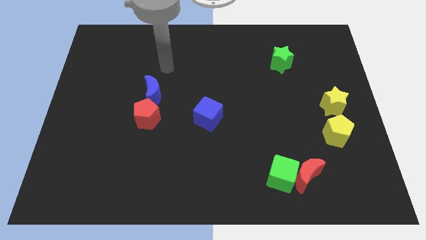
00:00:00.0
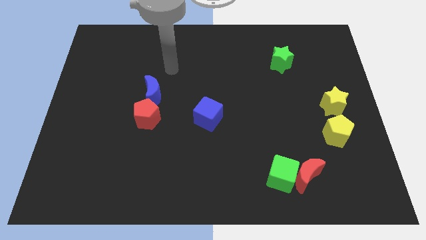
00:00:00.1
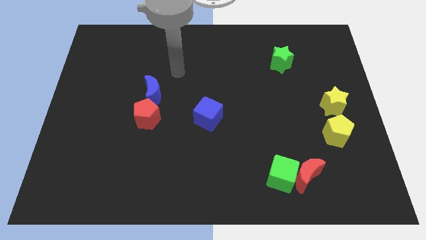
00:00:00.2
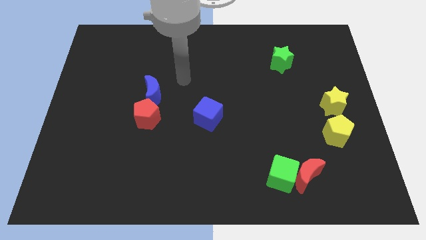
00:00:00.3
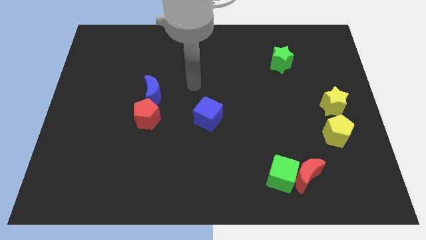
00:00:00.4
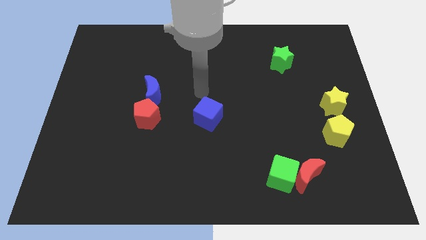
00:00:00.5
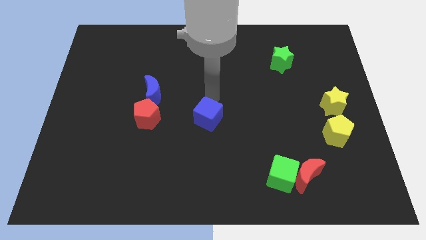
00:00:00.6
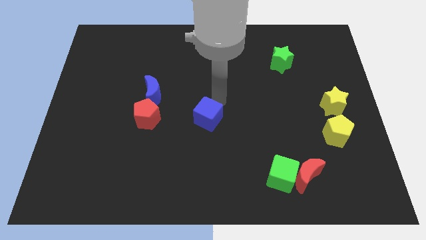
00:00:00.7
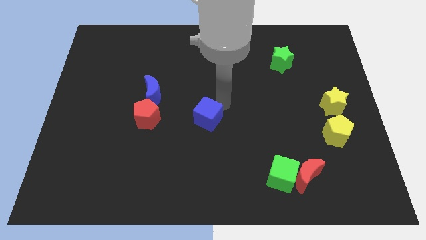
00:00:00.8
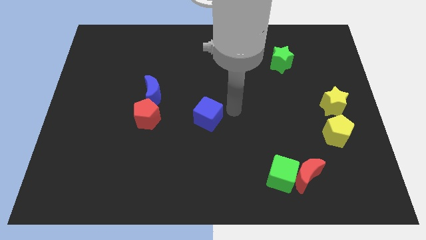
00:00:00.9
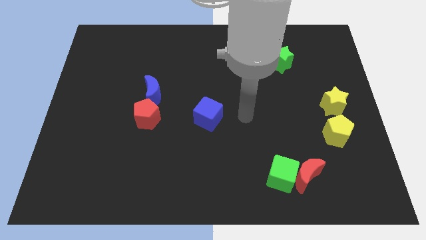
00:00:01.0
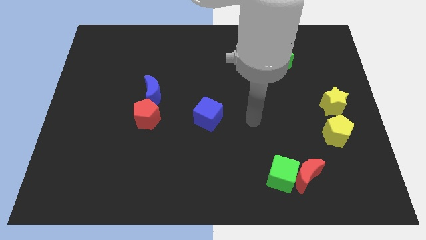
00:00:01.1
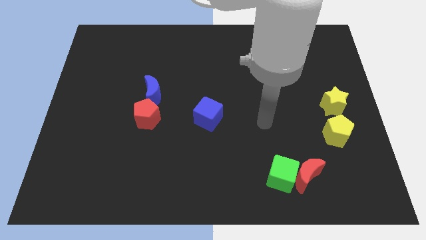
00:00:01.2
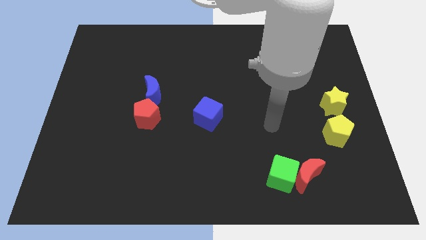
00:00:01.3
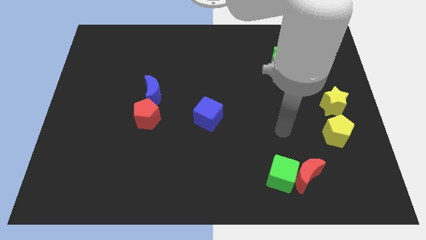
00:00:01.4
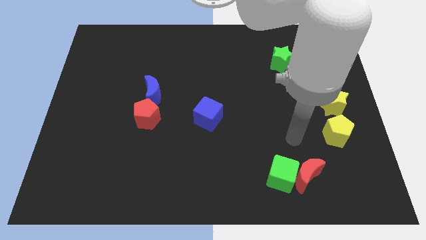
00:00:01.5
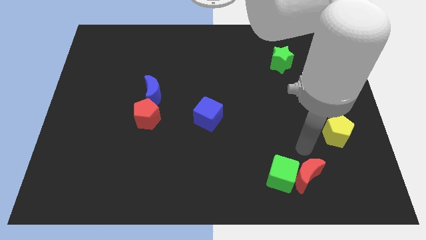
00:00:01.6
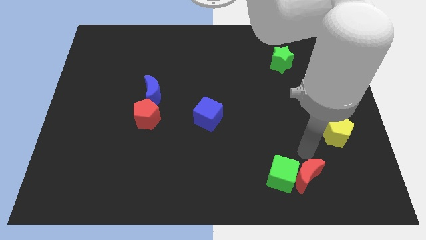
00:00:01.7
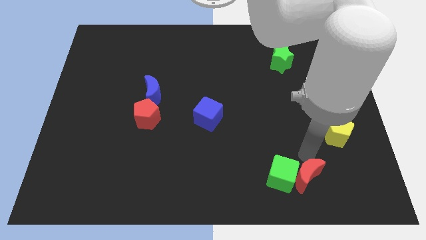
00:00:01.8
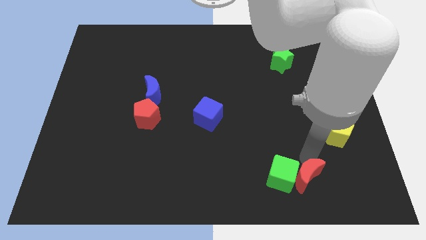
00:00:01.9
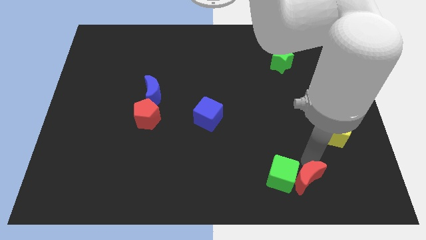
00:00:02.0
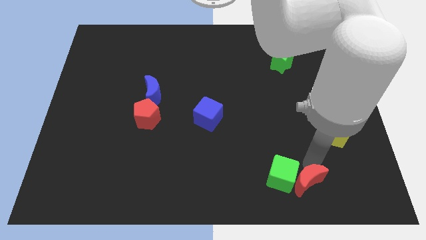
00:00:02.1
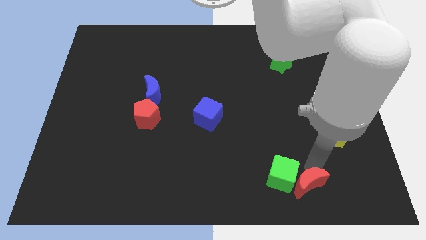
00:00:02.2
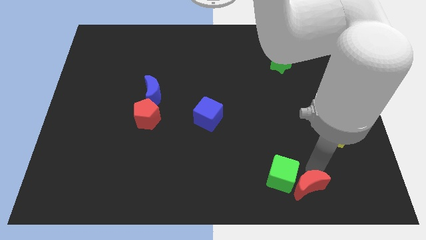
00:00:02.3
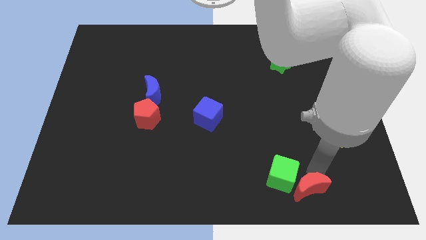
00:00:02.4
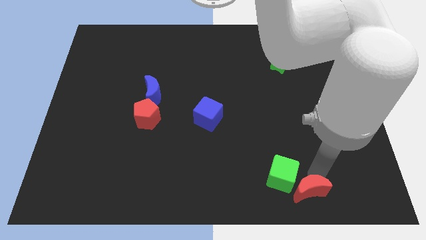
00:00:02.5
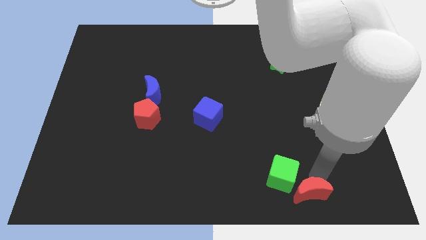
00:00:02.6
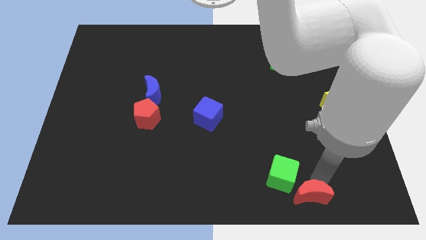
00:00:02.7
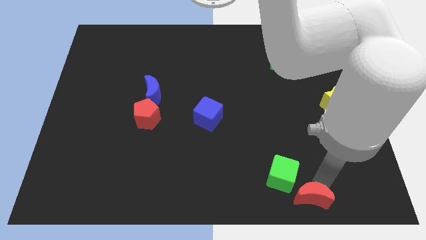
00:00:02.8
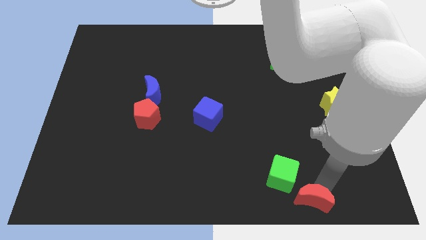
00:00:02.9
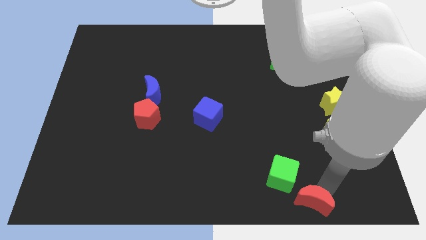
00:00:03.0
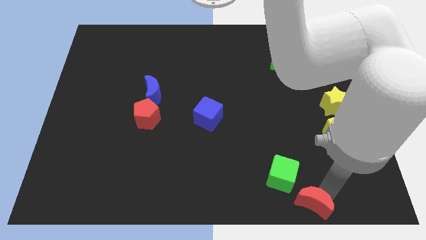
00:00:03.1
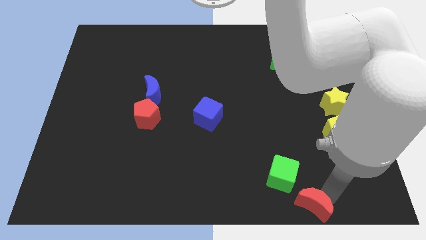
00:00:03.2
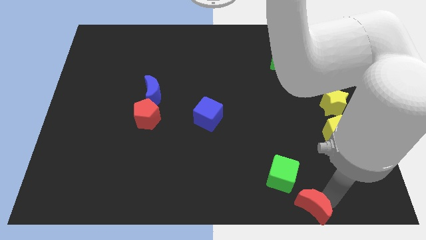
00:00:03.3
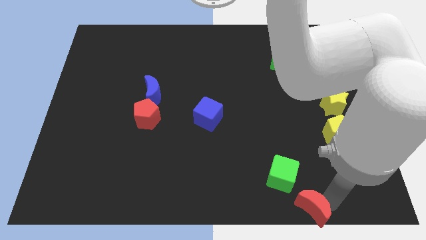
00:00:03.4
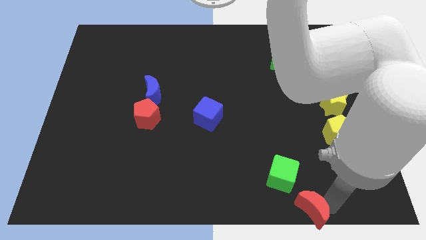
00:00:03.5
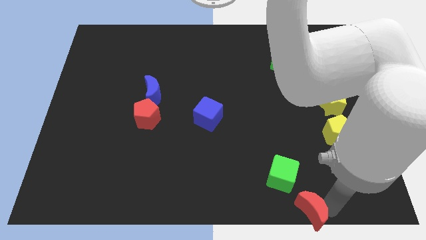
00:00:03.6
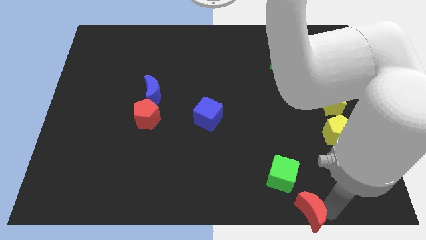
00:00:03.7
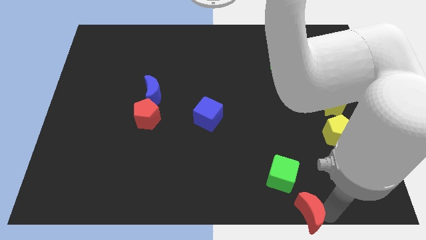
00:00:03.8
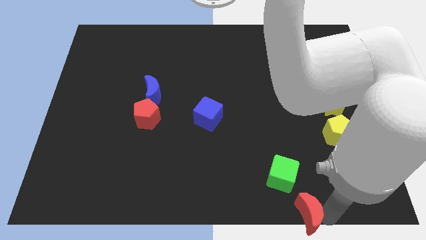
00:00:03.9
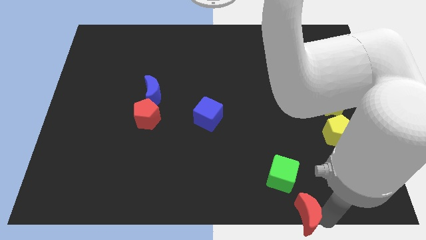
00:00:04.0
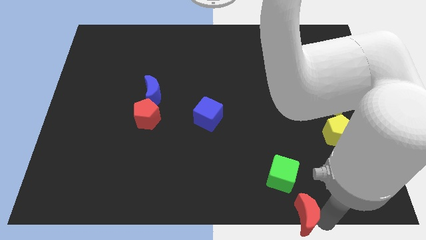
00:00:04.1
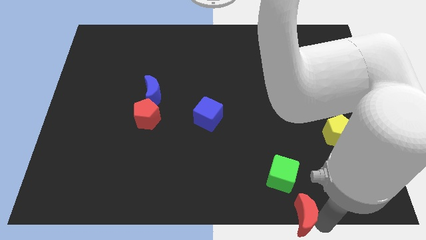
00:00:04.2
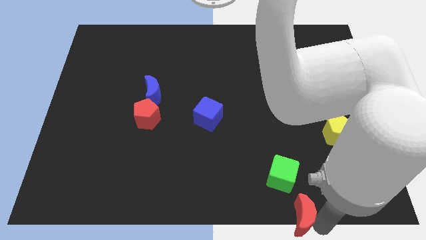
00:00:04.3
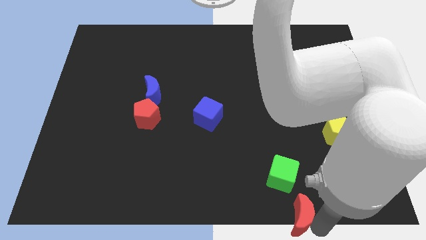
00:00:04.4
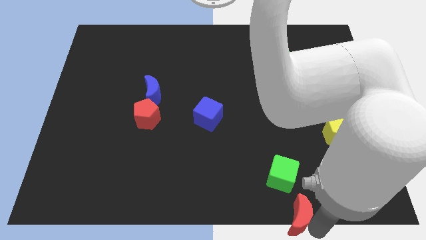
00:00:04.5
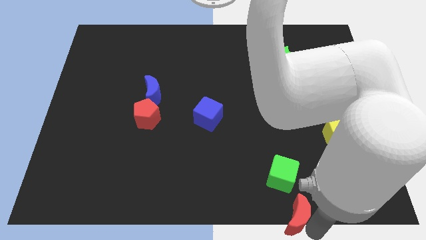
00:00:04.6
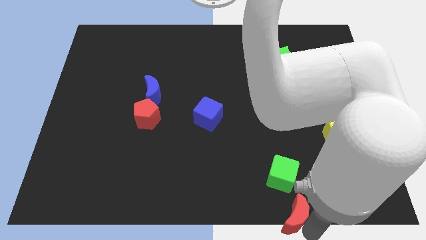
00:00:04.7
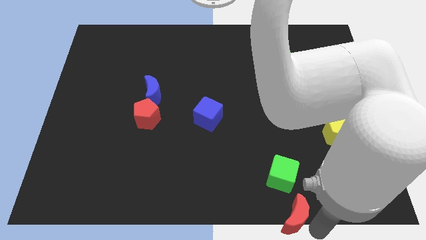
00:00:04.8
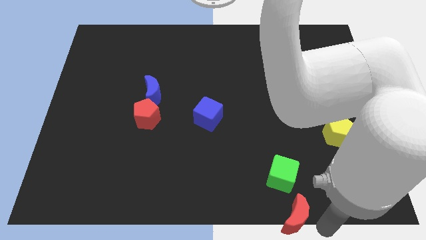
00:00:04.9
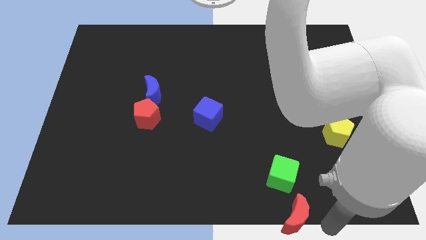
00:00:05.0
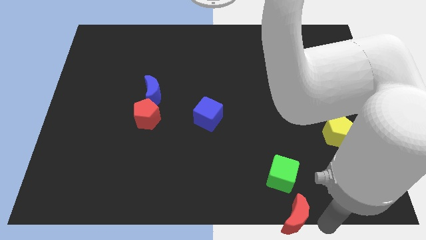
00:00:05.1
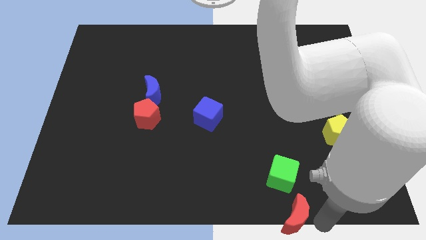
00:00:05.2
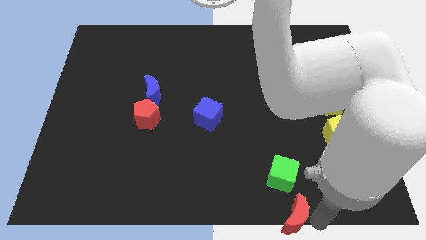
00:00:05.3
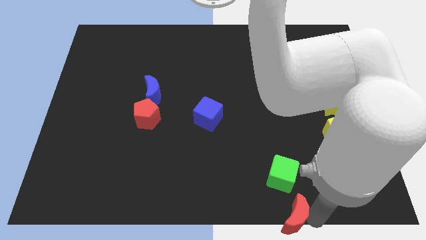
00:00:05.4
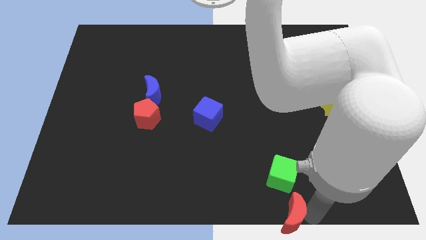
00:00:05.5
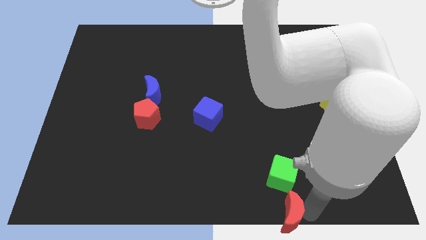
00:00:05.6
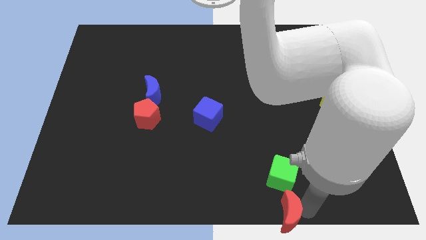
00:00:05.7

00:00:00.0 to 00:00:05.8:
put the red moon to the bottom side
